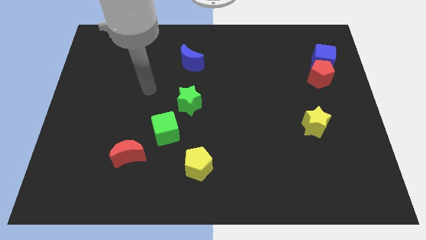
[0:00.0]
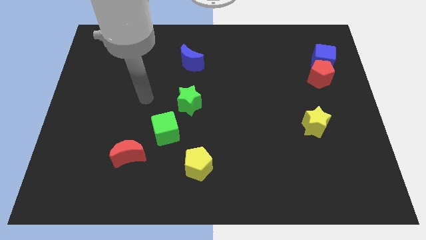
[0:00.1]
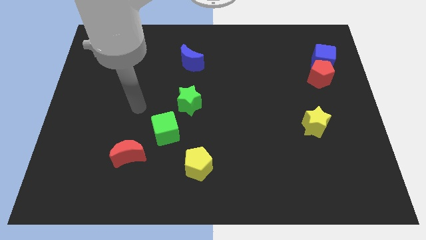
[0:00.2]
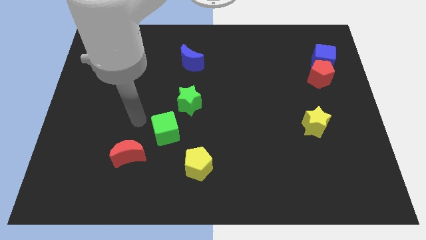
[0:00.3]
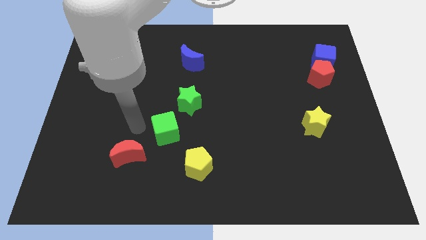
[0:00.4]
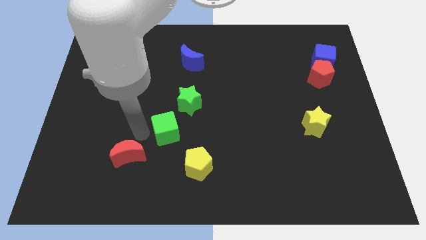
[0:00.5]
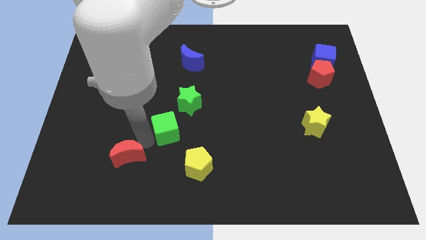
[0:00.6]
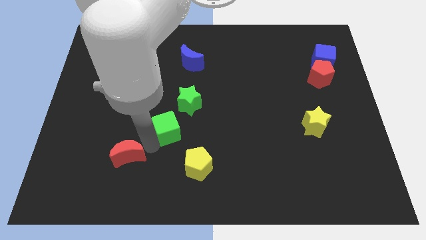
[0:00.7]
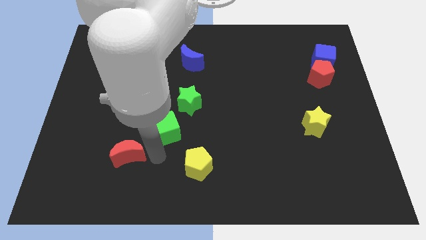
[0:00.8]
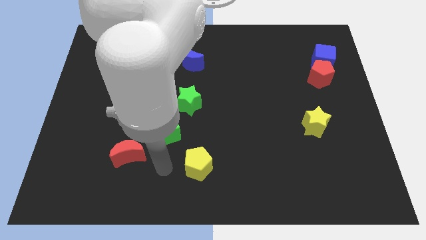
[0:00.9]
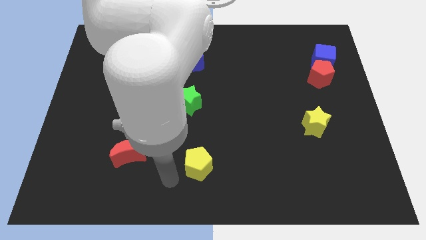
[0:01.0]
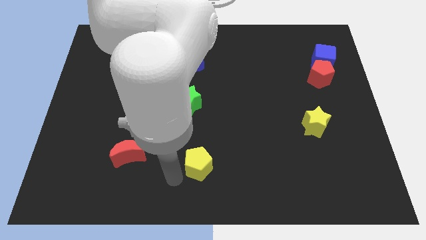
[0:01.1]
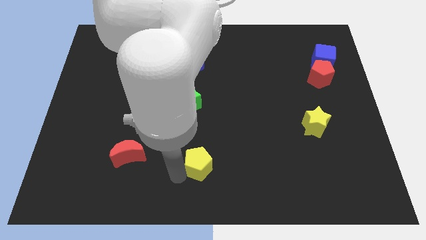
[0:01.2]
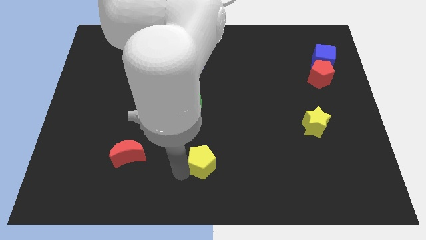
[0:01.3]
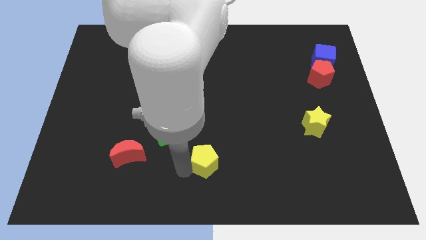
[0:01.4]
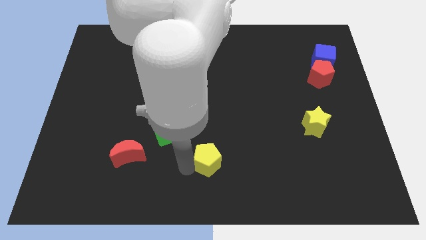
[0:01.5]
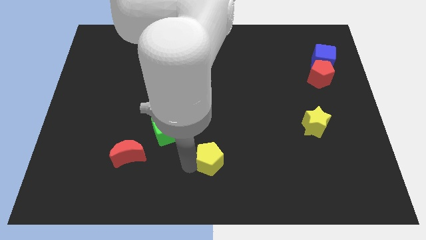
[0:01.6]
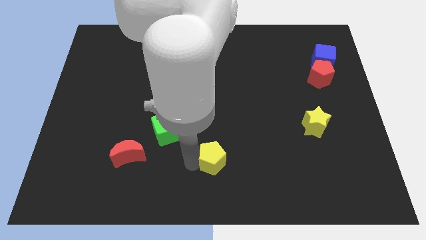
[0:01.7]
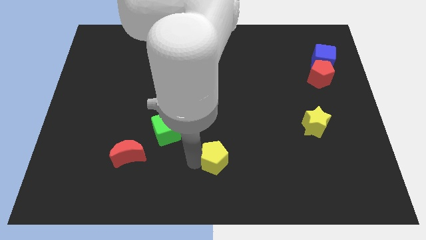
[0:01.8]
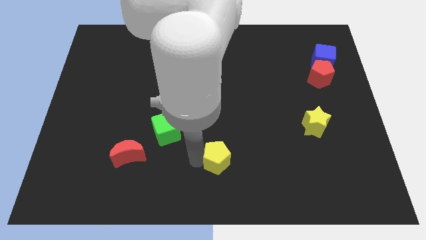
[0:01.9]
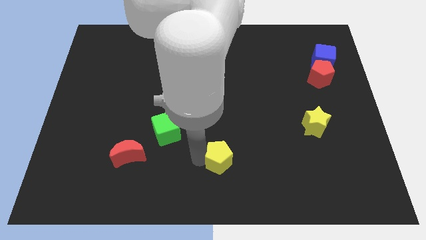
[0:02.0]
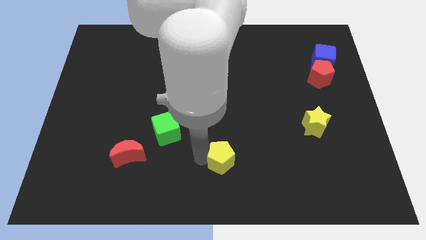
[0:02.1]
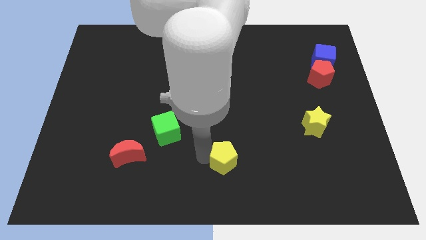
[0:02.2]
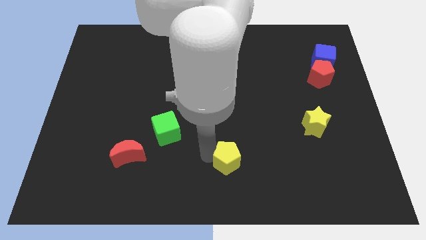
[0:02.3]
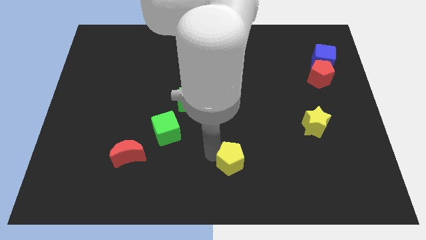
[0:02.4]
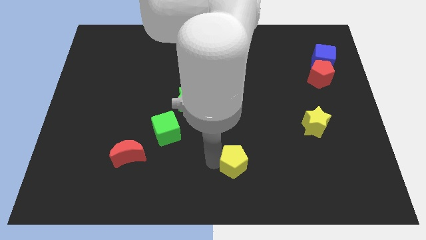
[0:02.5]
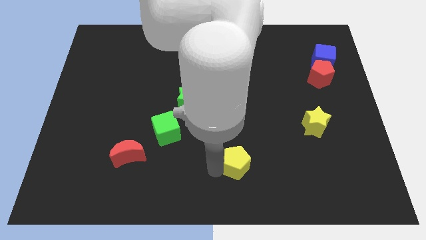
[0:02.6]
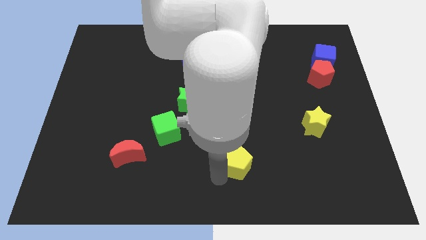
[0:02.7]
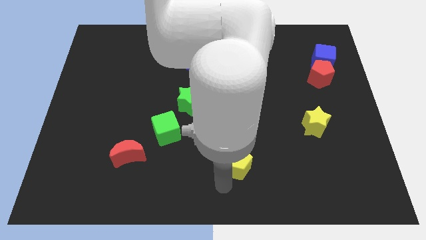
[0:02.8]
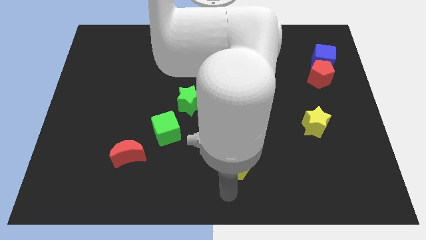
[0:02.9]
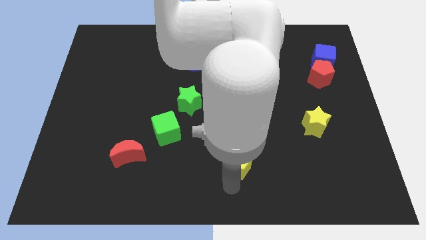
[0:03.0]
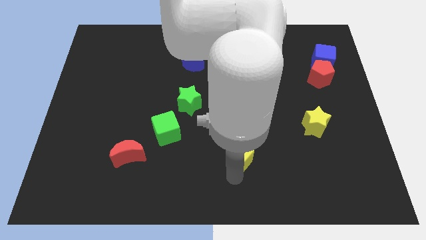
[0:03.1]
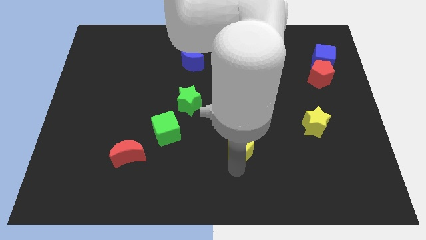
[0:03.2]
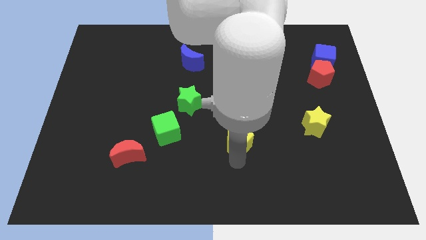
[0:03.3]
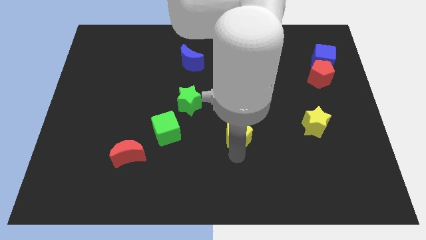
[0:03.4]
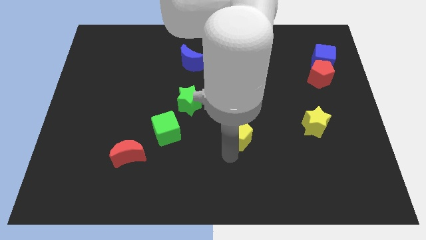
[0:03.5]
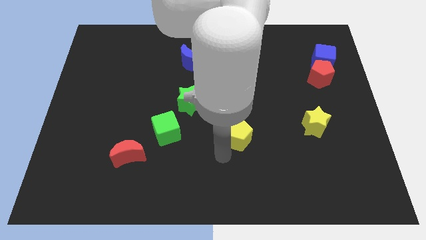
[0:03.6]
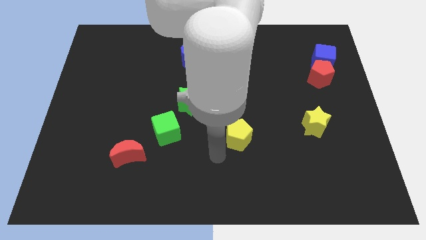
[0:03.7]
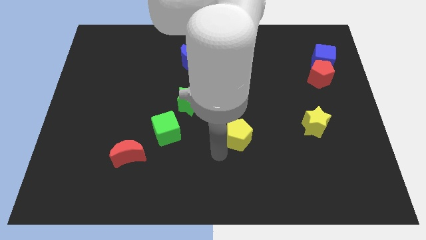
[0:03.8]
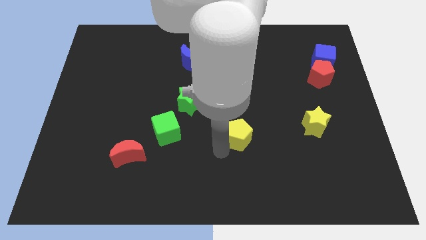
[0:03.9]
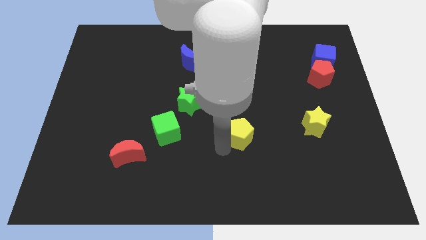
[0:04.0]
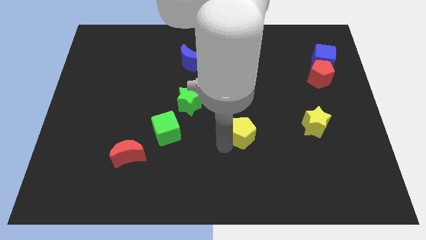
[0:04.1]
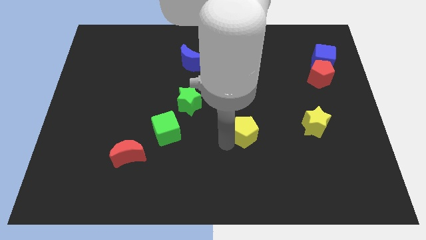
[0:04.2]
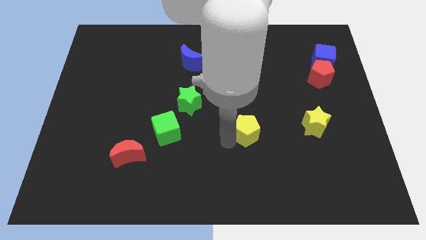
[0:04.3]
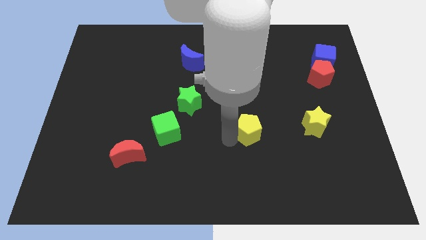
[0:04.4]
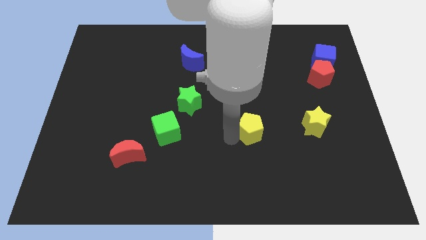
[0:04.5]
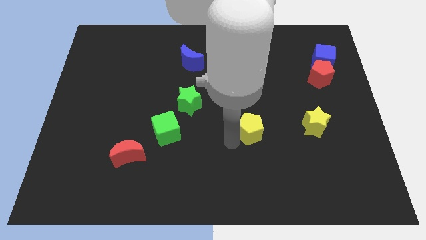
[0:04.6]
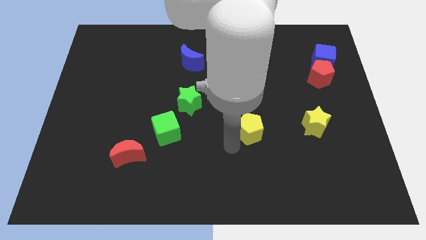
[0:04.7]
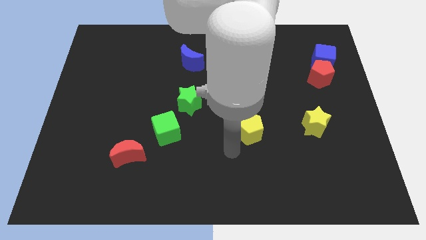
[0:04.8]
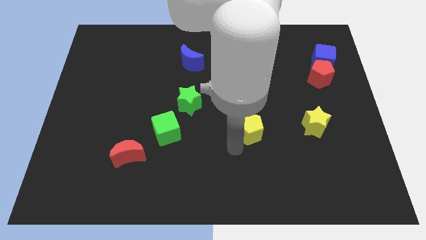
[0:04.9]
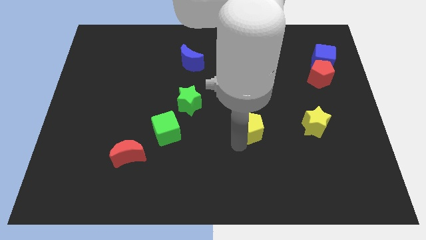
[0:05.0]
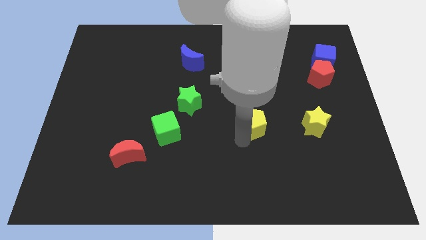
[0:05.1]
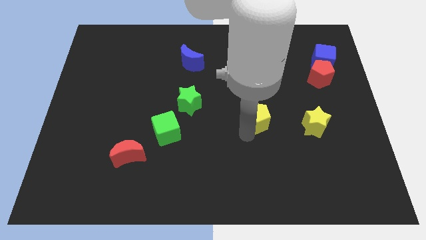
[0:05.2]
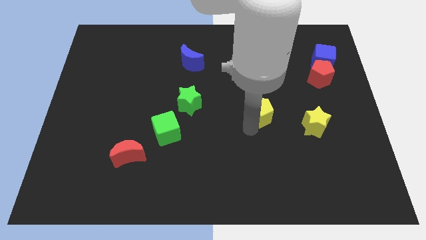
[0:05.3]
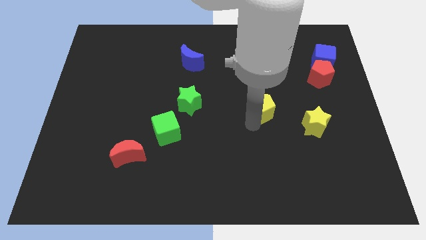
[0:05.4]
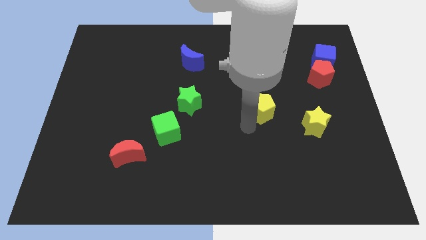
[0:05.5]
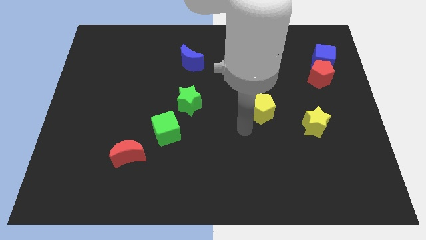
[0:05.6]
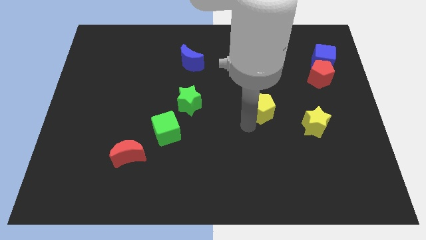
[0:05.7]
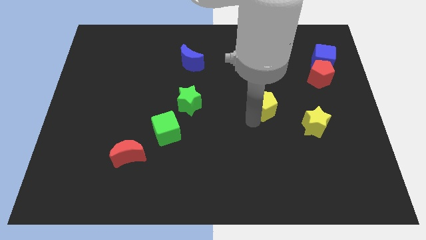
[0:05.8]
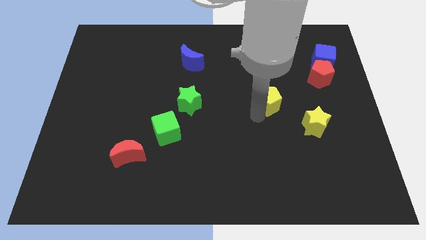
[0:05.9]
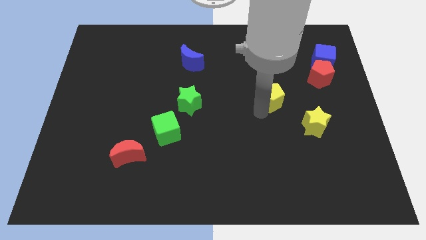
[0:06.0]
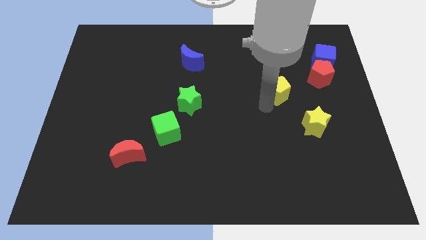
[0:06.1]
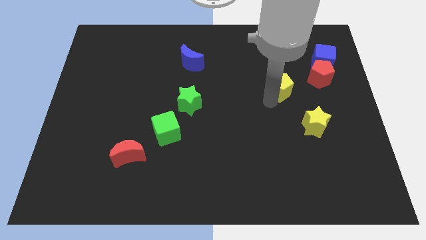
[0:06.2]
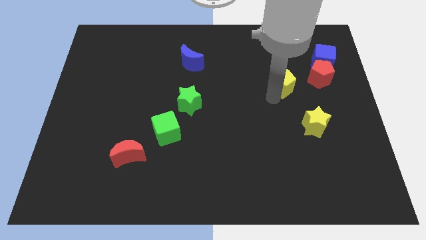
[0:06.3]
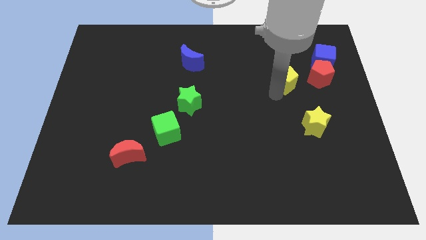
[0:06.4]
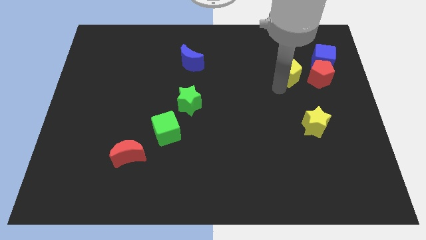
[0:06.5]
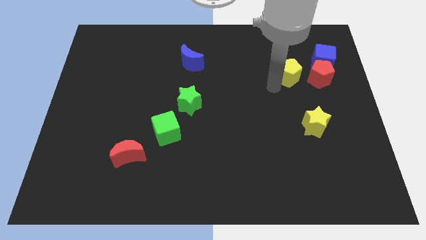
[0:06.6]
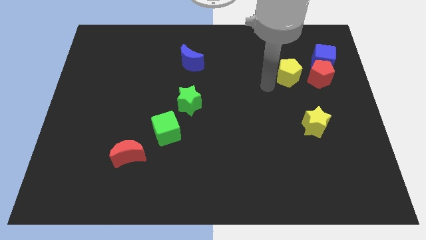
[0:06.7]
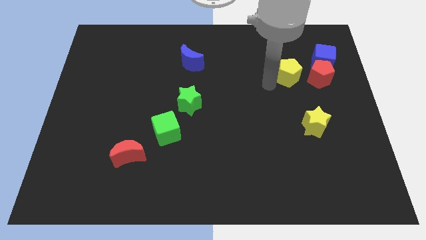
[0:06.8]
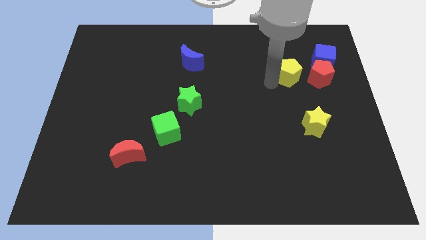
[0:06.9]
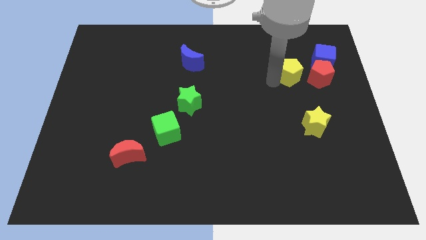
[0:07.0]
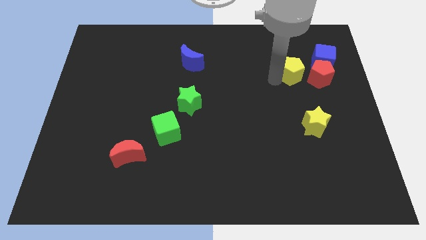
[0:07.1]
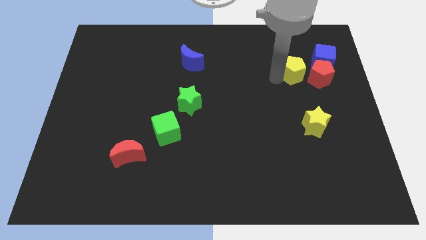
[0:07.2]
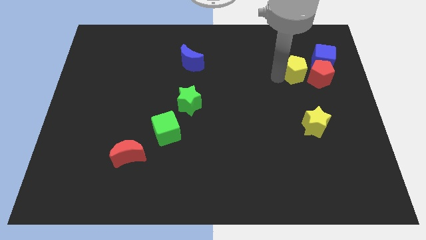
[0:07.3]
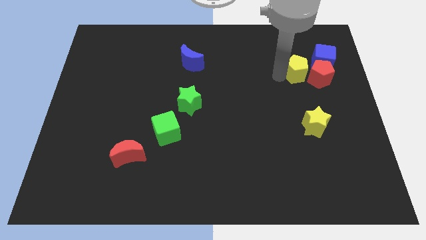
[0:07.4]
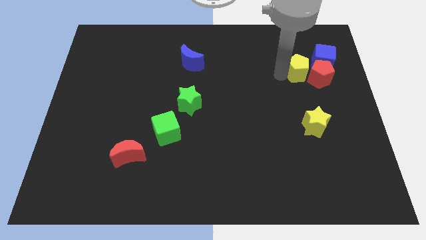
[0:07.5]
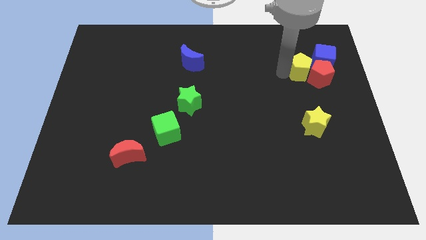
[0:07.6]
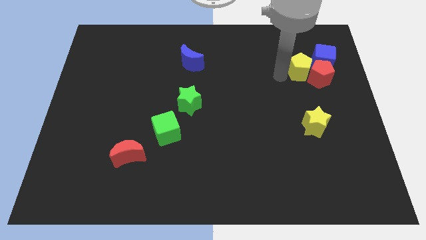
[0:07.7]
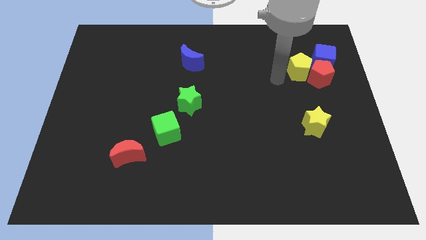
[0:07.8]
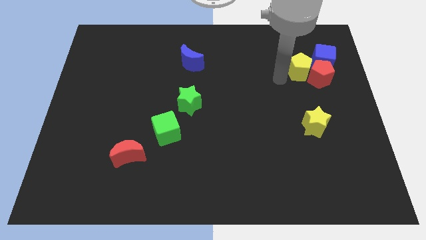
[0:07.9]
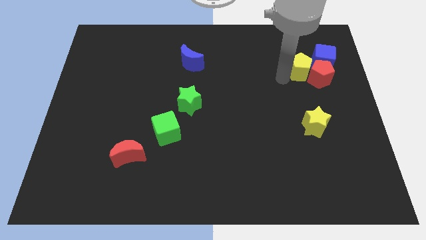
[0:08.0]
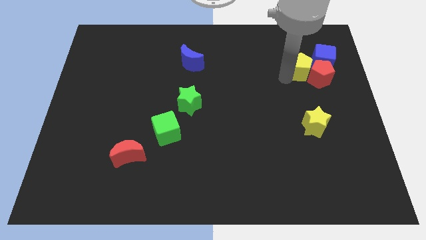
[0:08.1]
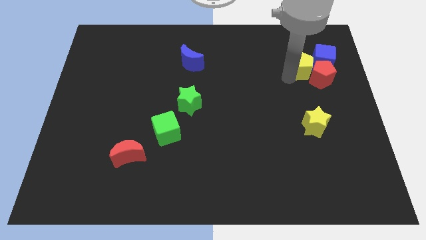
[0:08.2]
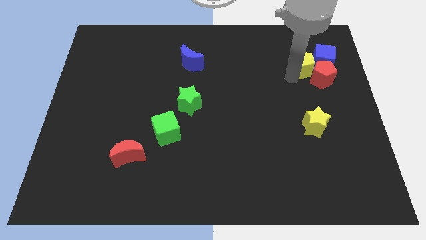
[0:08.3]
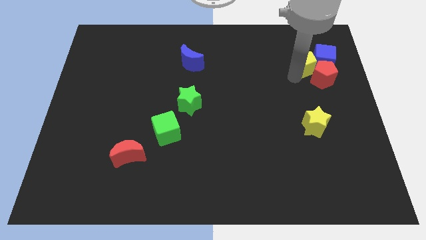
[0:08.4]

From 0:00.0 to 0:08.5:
put the yellow pentagon close to the blue cube
